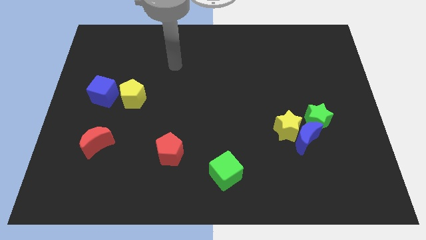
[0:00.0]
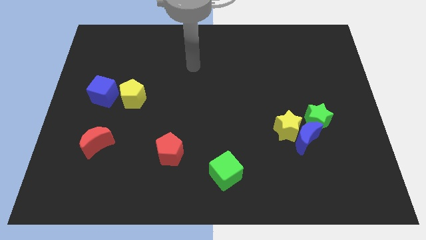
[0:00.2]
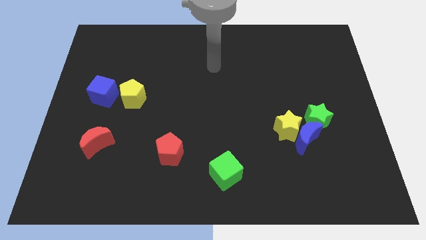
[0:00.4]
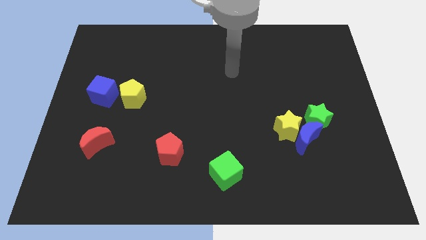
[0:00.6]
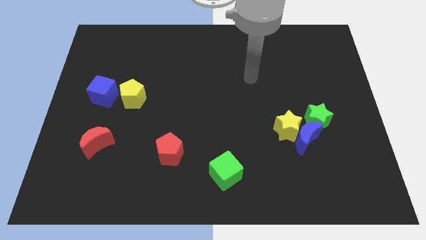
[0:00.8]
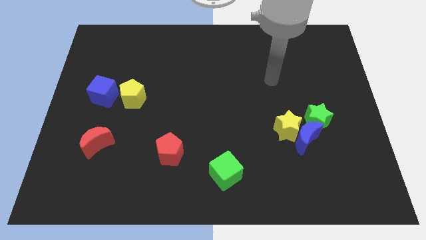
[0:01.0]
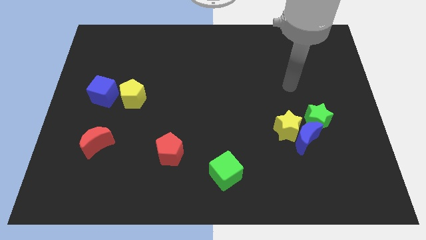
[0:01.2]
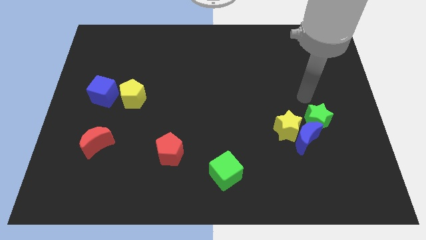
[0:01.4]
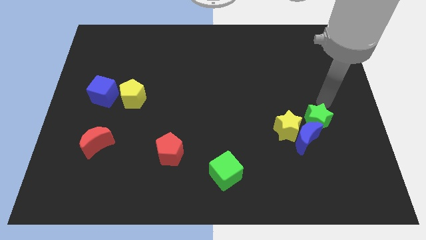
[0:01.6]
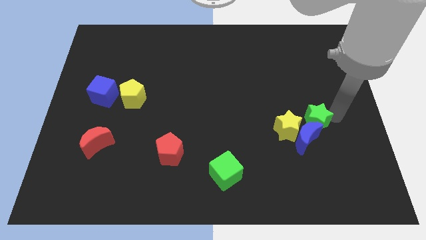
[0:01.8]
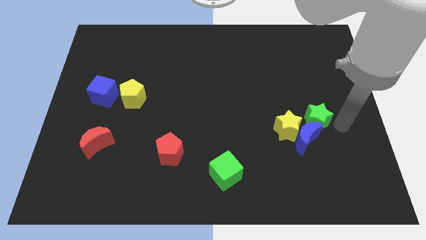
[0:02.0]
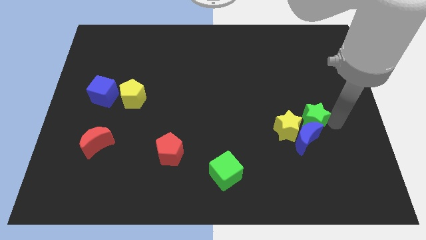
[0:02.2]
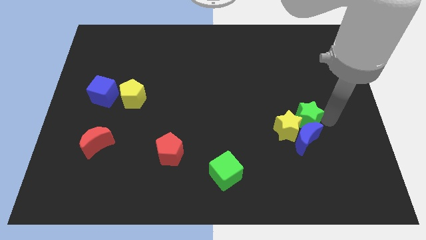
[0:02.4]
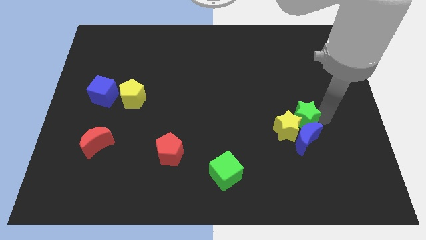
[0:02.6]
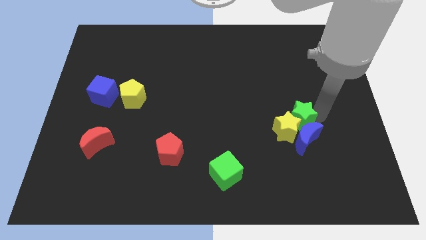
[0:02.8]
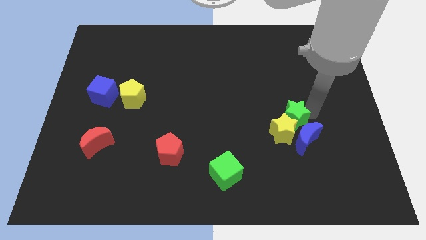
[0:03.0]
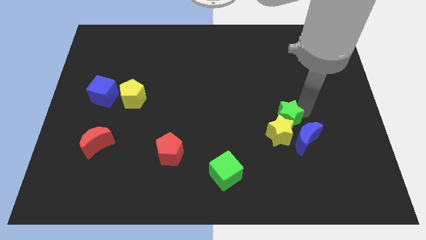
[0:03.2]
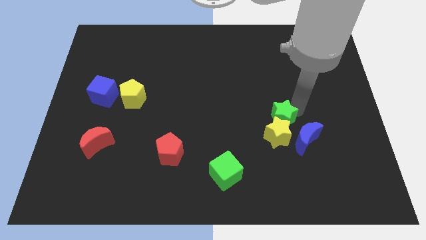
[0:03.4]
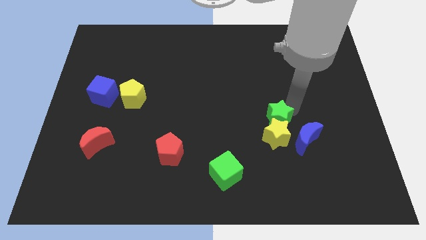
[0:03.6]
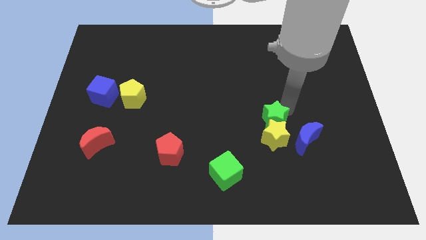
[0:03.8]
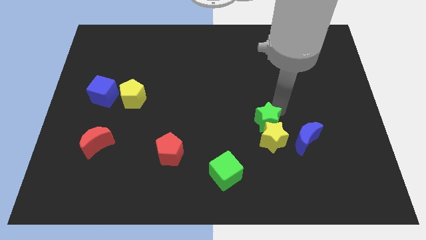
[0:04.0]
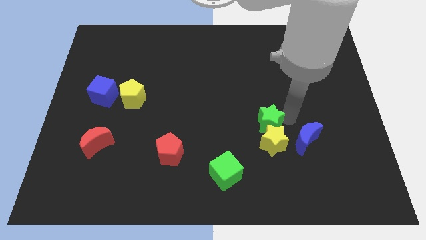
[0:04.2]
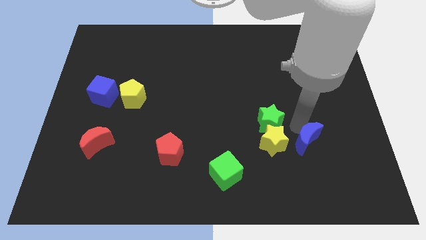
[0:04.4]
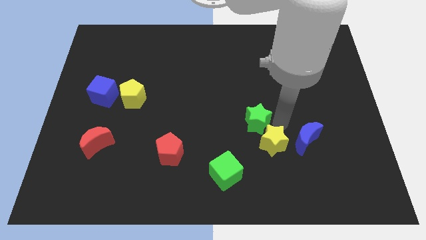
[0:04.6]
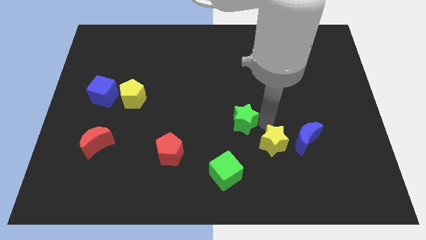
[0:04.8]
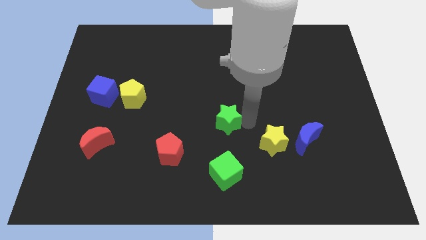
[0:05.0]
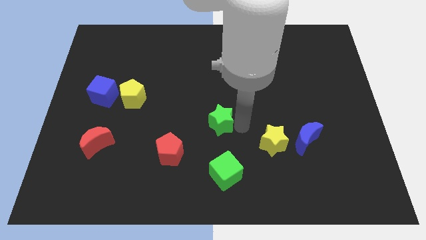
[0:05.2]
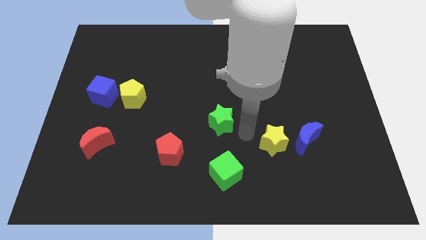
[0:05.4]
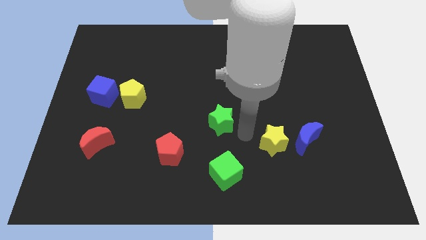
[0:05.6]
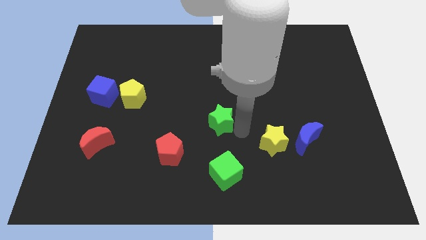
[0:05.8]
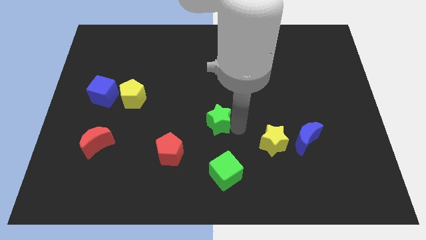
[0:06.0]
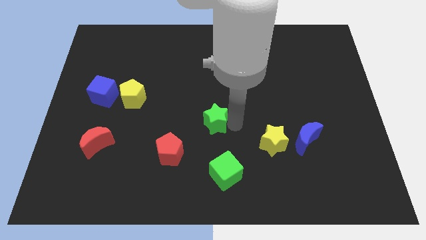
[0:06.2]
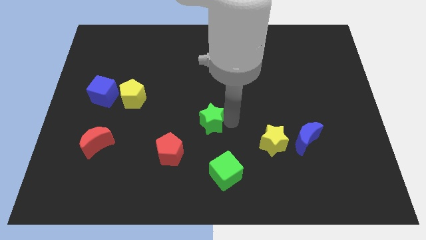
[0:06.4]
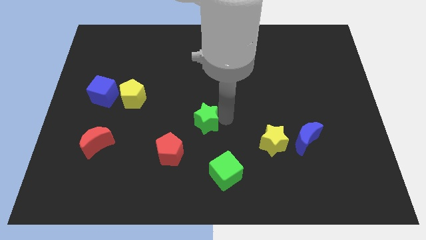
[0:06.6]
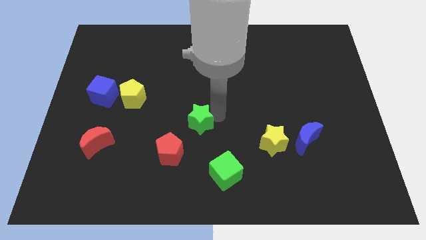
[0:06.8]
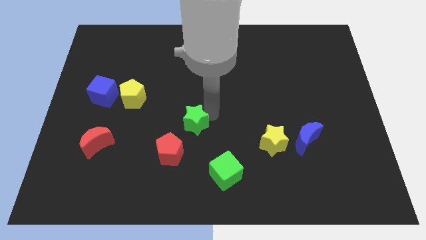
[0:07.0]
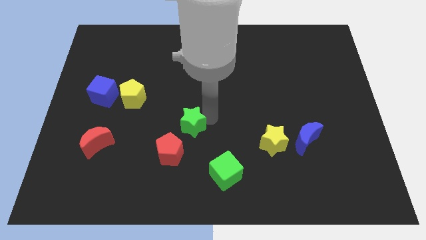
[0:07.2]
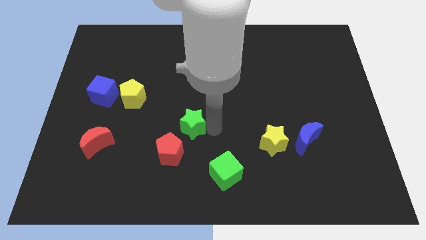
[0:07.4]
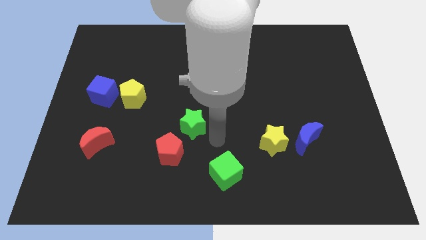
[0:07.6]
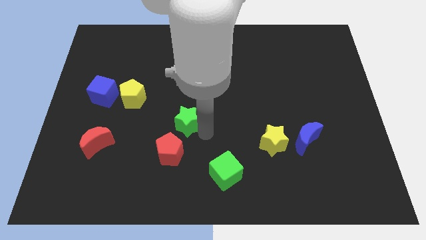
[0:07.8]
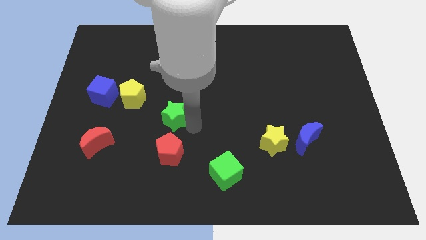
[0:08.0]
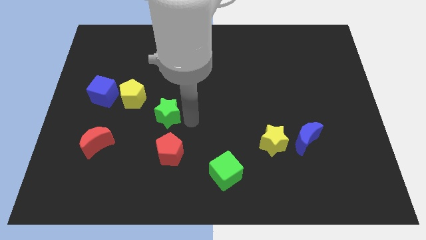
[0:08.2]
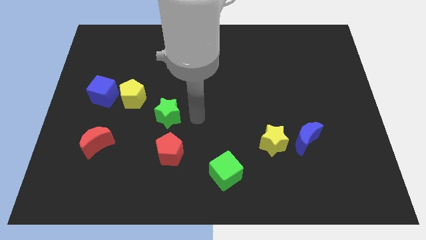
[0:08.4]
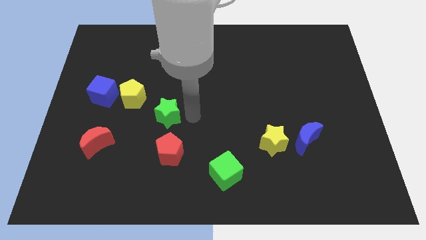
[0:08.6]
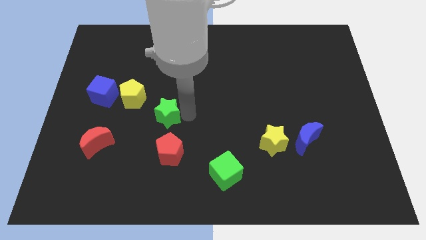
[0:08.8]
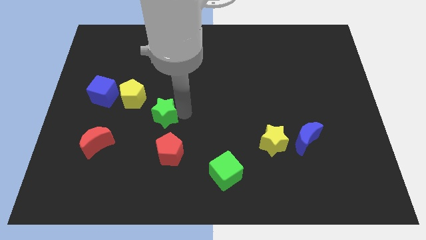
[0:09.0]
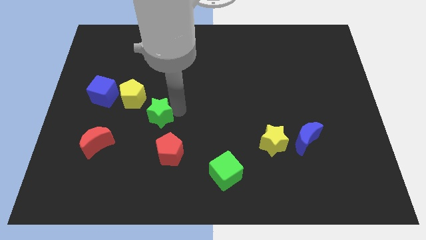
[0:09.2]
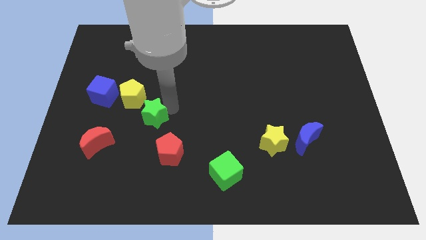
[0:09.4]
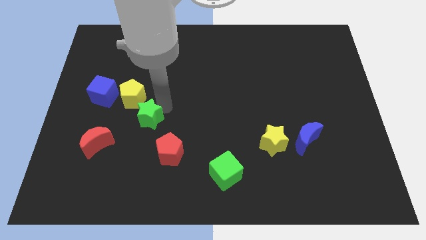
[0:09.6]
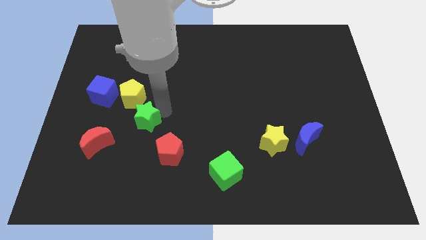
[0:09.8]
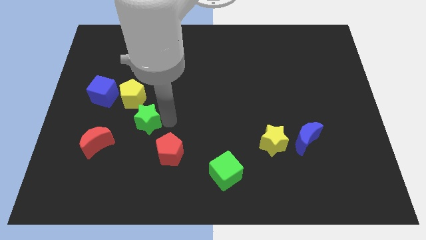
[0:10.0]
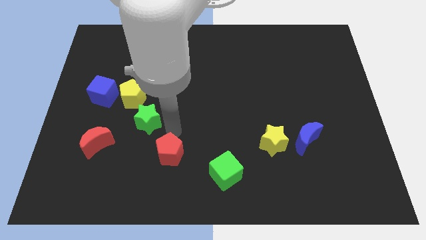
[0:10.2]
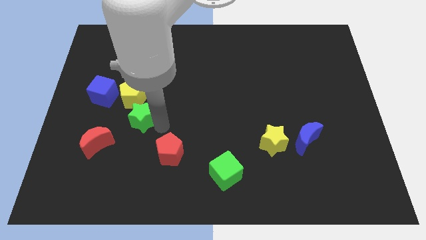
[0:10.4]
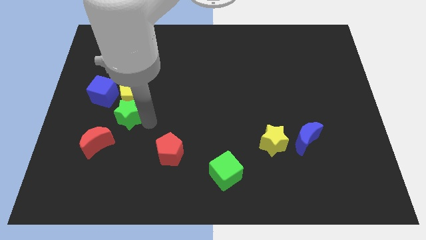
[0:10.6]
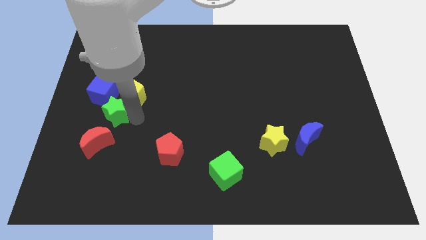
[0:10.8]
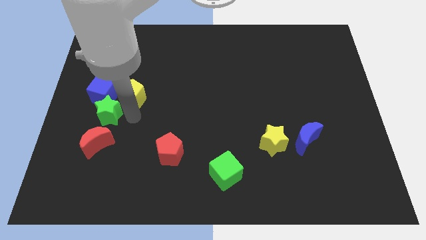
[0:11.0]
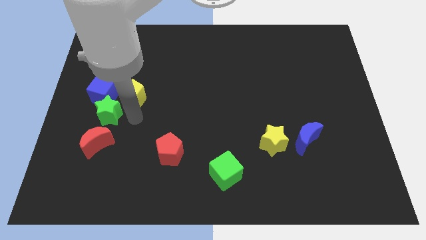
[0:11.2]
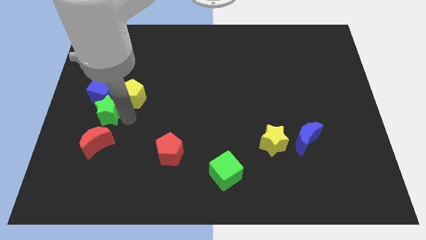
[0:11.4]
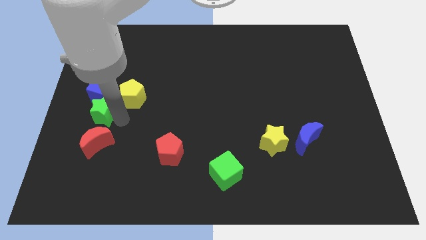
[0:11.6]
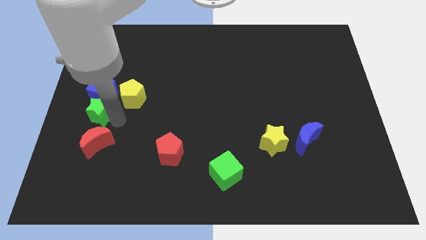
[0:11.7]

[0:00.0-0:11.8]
move the green star to the left side of the board

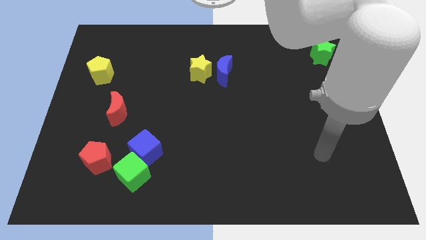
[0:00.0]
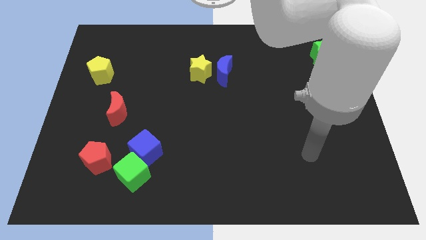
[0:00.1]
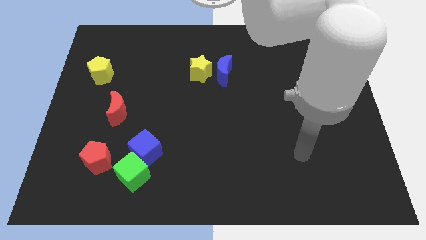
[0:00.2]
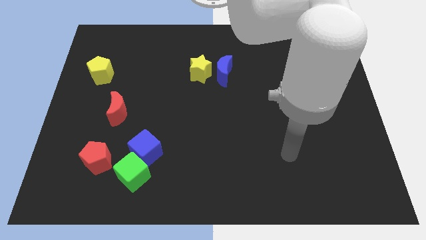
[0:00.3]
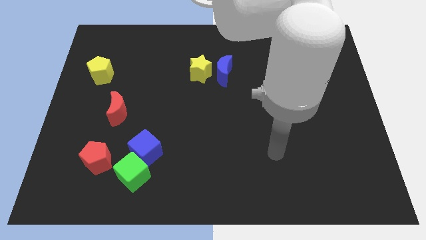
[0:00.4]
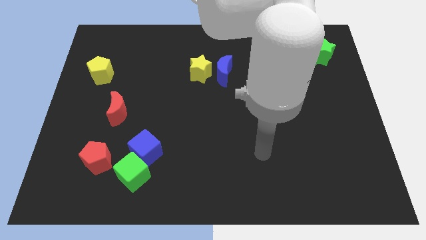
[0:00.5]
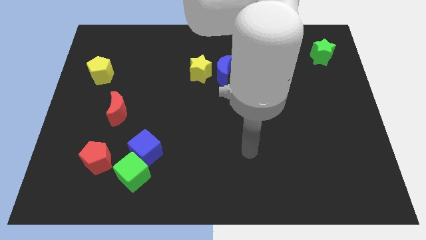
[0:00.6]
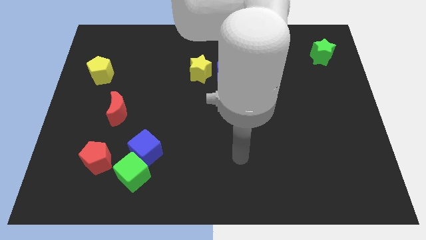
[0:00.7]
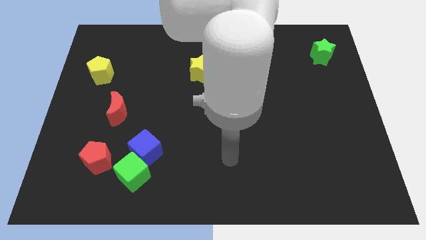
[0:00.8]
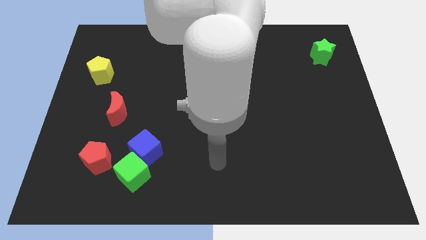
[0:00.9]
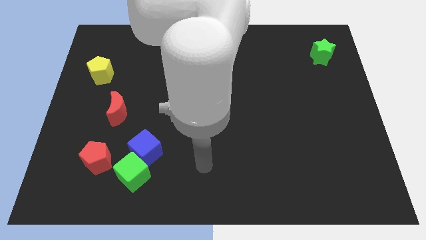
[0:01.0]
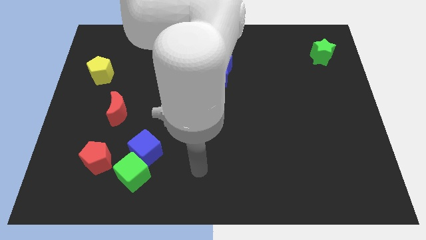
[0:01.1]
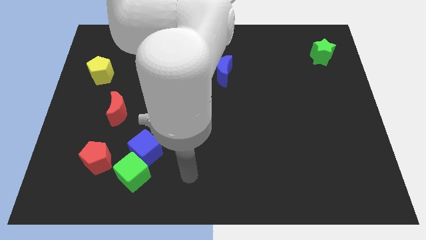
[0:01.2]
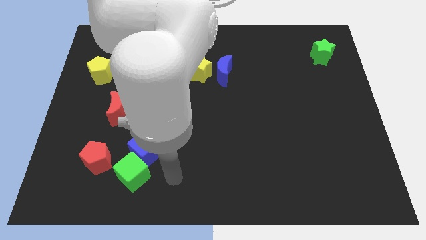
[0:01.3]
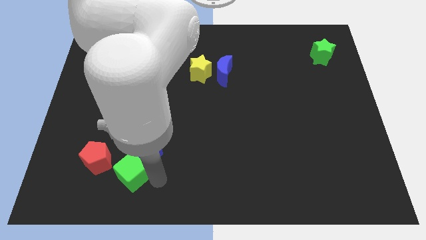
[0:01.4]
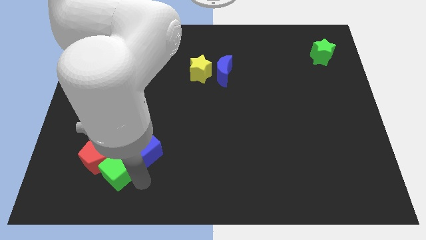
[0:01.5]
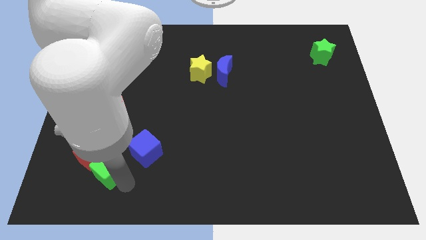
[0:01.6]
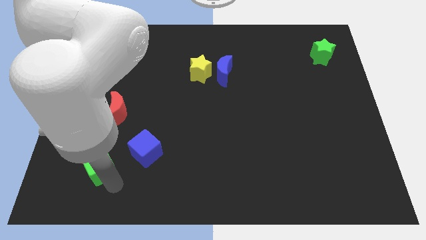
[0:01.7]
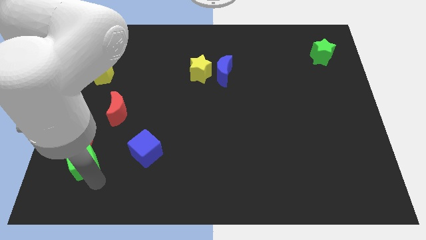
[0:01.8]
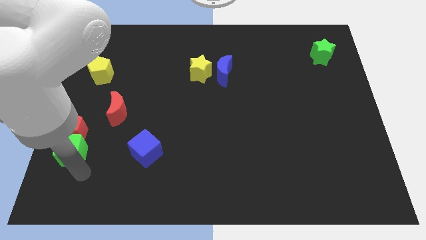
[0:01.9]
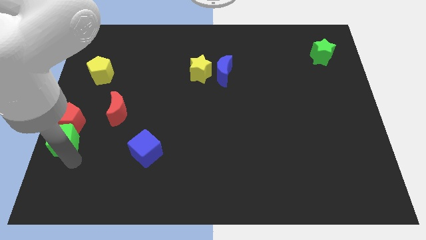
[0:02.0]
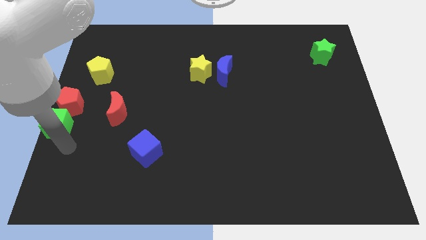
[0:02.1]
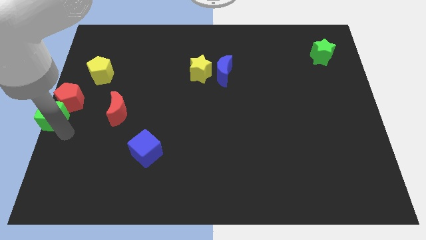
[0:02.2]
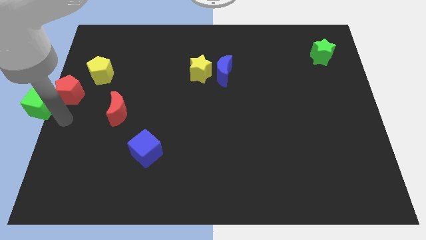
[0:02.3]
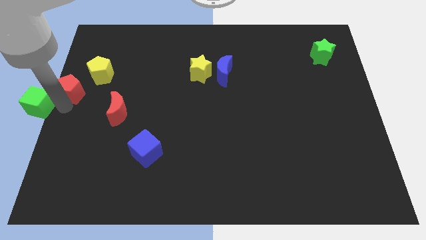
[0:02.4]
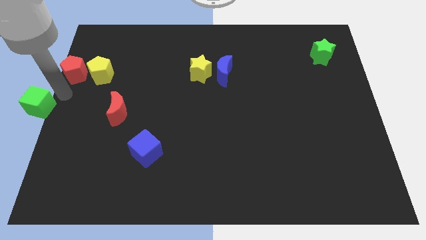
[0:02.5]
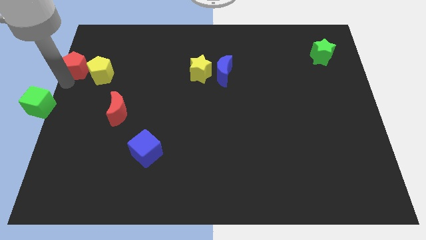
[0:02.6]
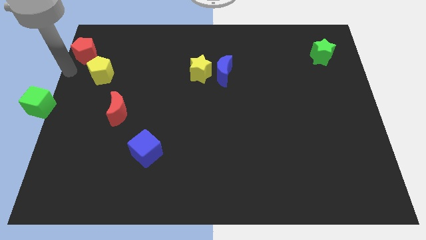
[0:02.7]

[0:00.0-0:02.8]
put the red pentagon to the upper left corner
